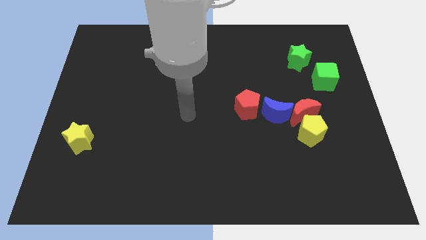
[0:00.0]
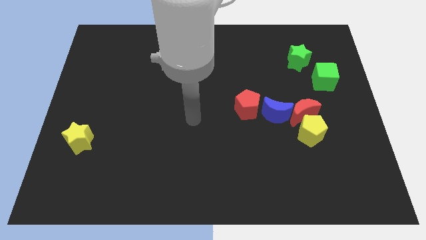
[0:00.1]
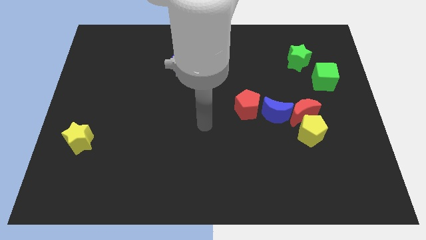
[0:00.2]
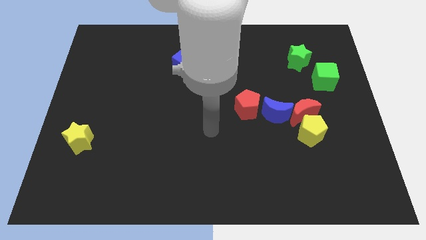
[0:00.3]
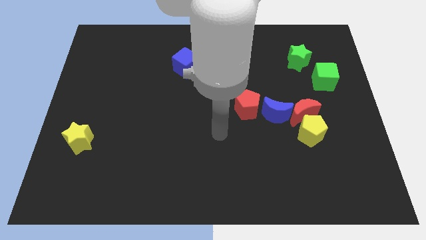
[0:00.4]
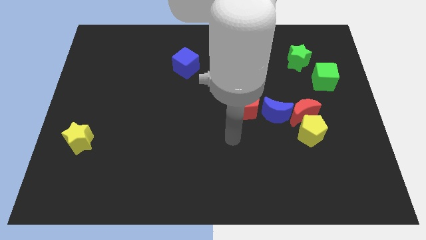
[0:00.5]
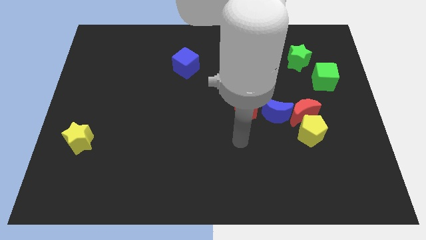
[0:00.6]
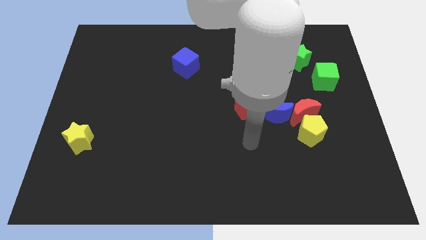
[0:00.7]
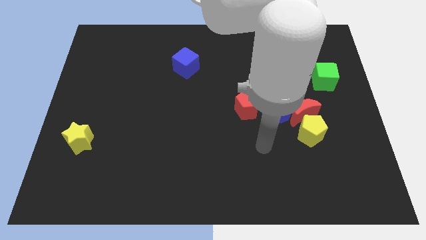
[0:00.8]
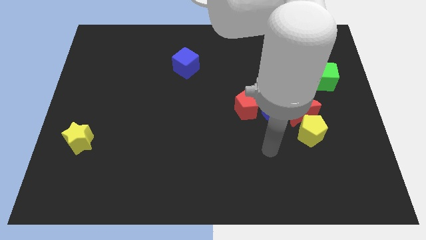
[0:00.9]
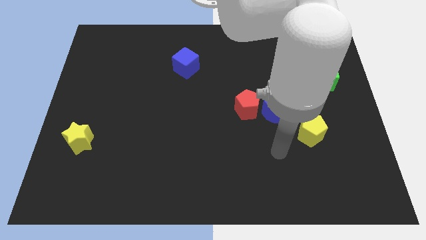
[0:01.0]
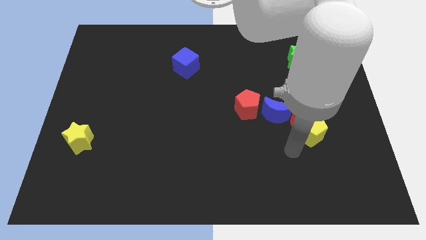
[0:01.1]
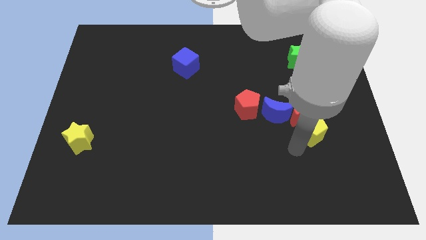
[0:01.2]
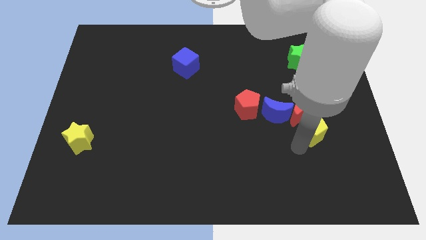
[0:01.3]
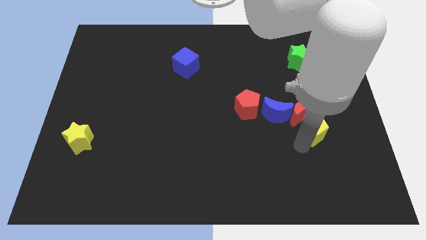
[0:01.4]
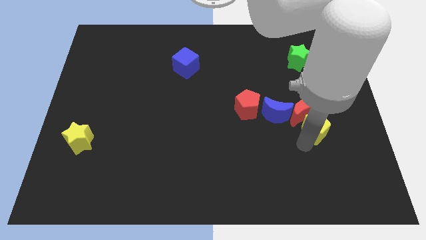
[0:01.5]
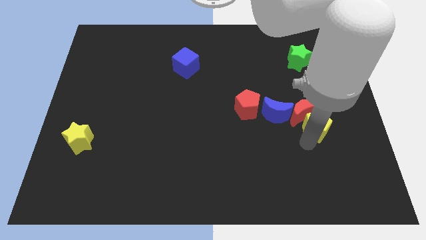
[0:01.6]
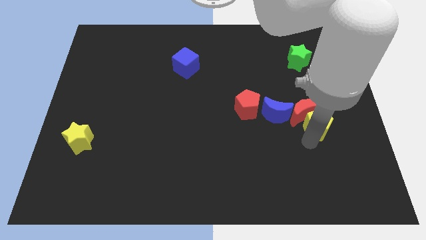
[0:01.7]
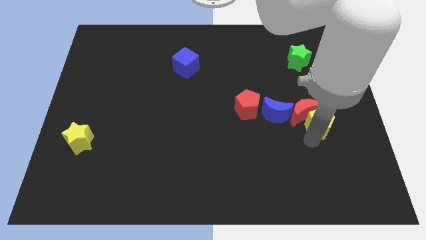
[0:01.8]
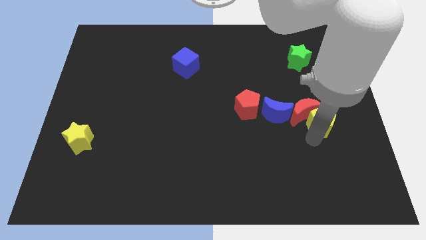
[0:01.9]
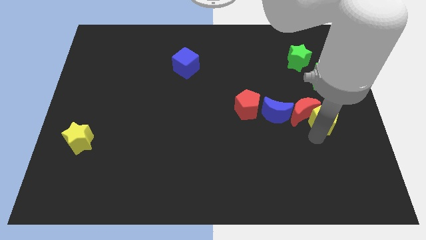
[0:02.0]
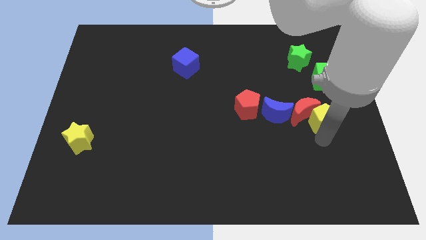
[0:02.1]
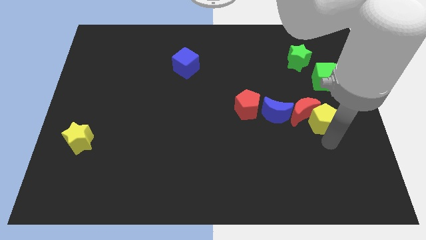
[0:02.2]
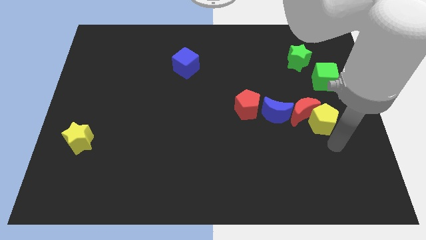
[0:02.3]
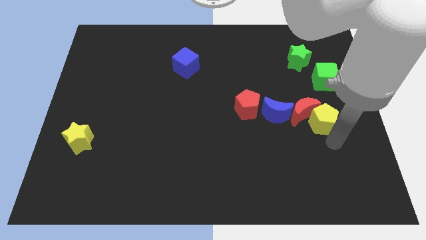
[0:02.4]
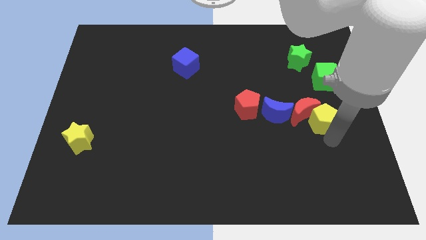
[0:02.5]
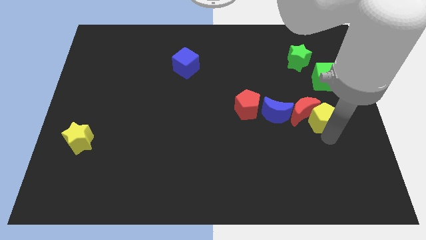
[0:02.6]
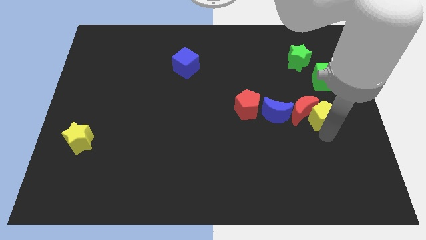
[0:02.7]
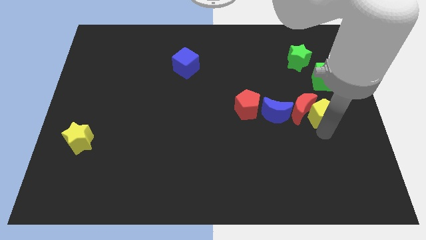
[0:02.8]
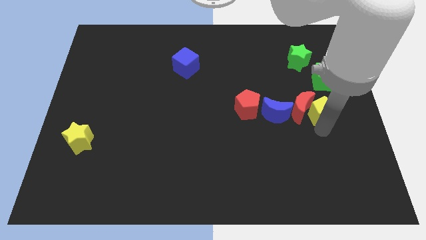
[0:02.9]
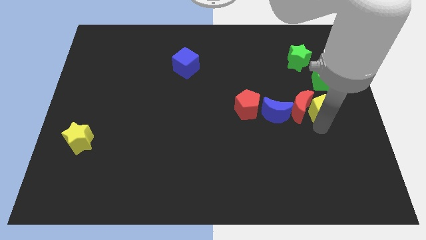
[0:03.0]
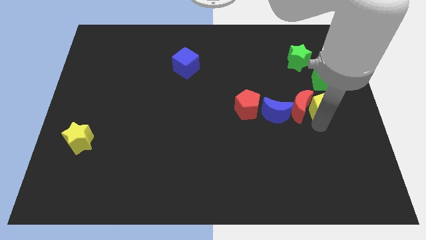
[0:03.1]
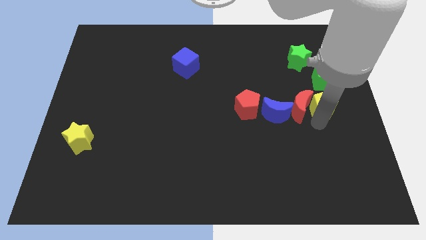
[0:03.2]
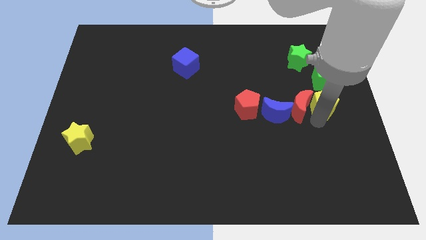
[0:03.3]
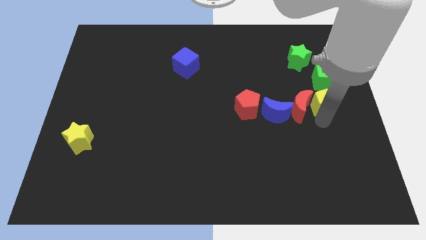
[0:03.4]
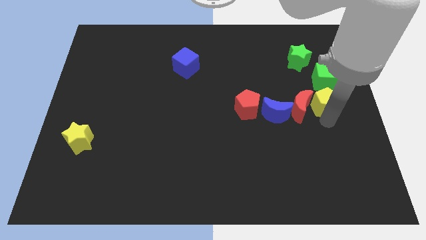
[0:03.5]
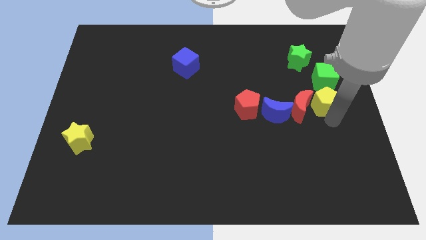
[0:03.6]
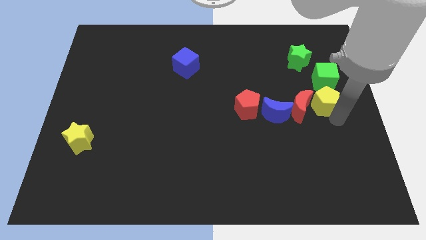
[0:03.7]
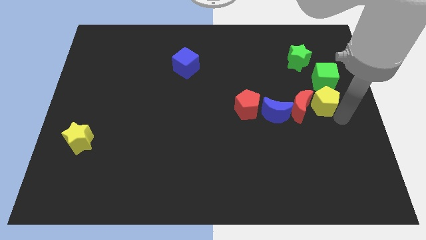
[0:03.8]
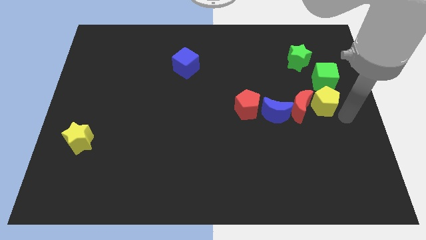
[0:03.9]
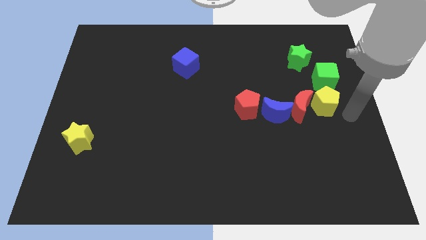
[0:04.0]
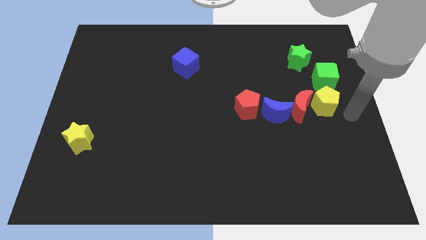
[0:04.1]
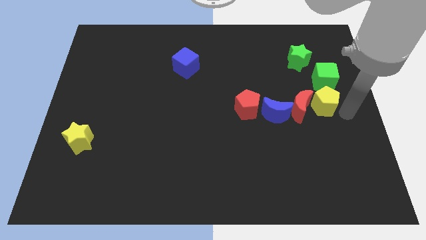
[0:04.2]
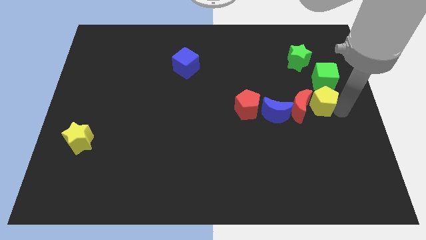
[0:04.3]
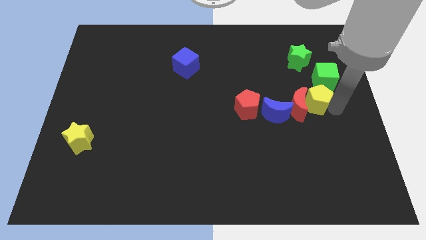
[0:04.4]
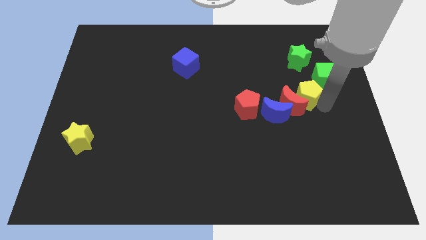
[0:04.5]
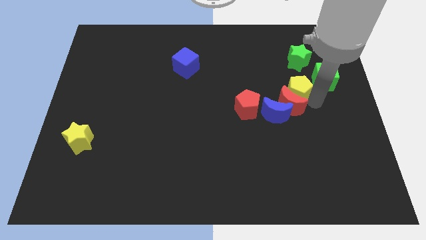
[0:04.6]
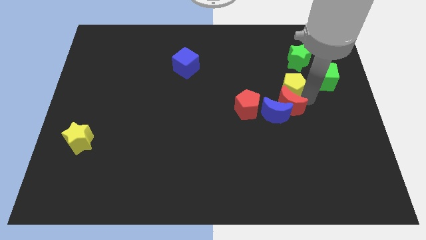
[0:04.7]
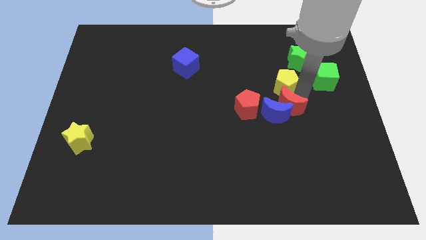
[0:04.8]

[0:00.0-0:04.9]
push the yellow pentagon to the bottom left of the green star

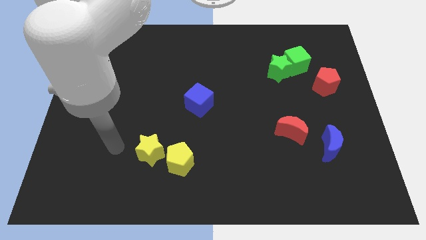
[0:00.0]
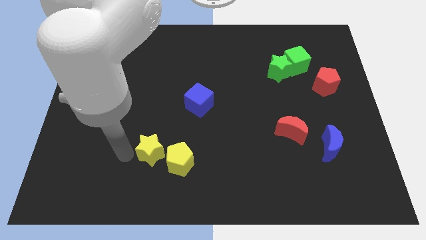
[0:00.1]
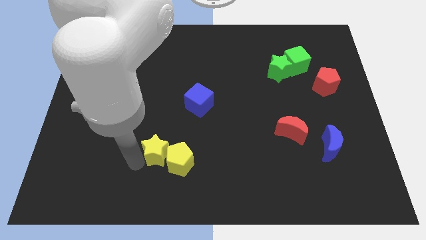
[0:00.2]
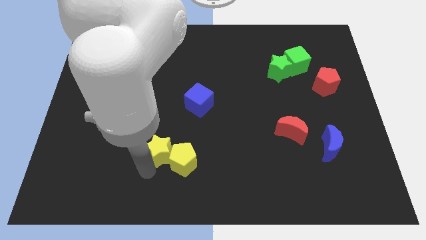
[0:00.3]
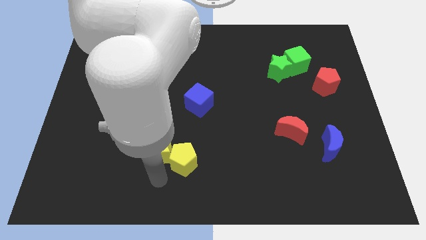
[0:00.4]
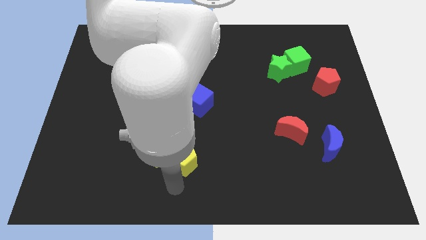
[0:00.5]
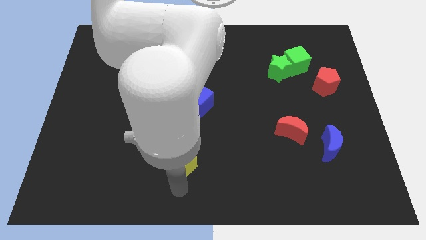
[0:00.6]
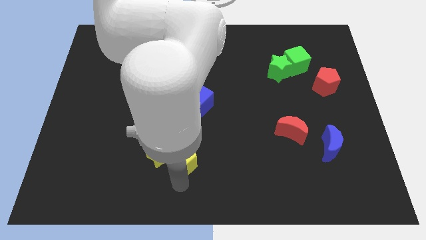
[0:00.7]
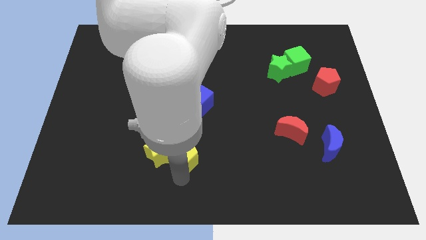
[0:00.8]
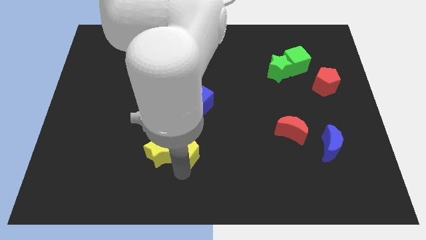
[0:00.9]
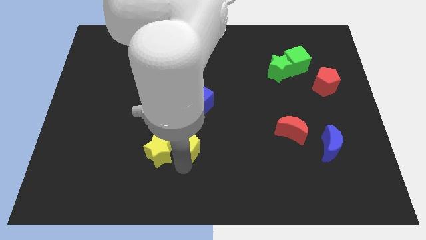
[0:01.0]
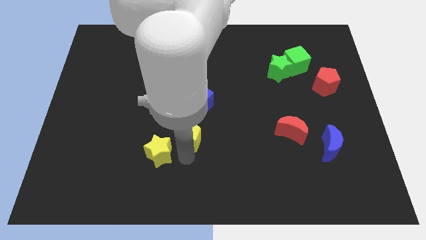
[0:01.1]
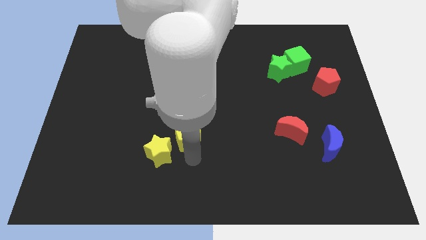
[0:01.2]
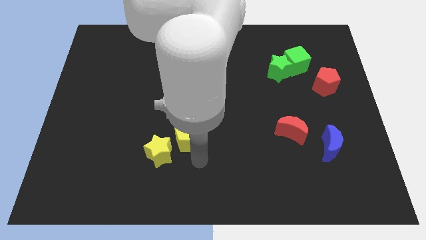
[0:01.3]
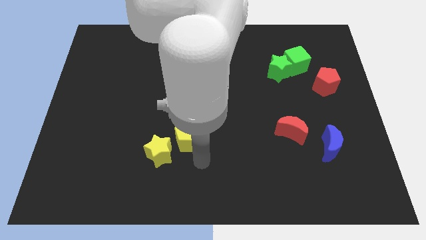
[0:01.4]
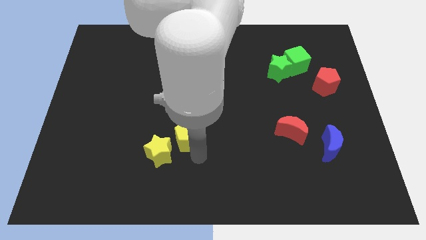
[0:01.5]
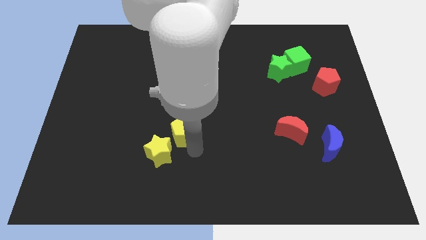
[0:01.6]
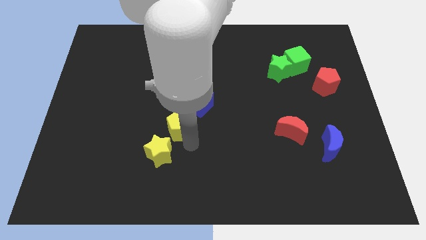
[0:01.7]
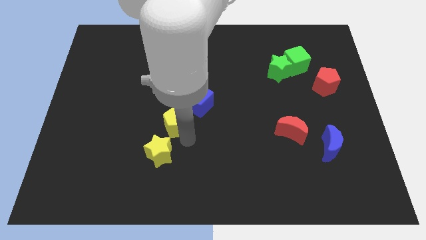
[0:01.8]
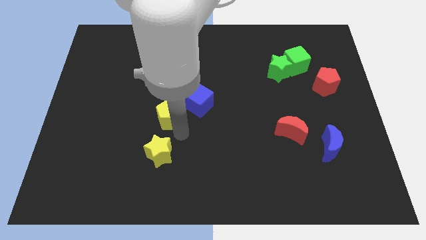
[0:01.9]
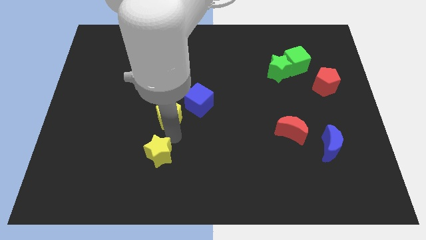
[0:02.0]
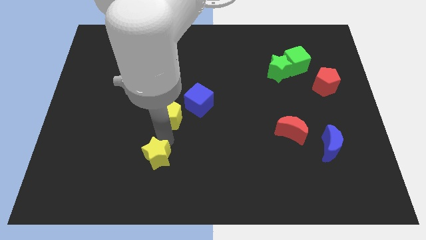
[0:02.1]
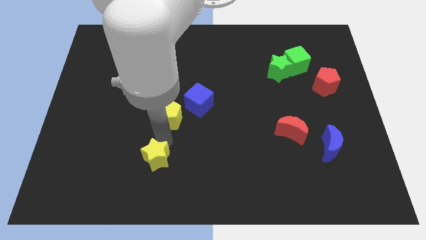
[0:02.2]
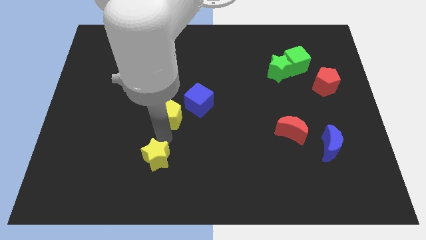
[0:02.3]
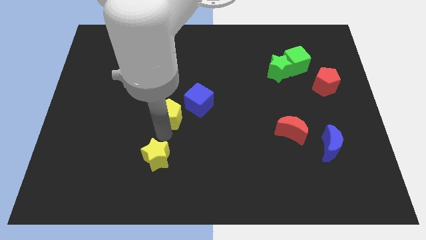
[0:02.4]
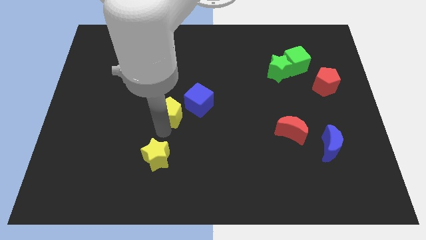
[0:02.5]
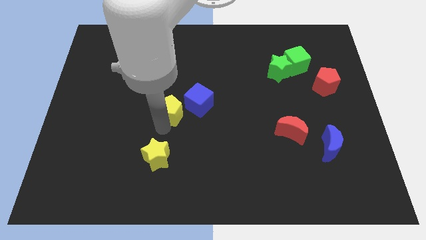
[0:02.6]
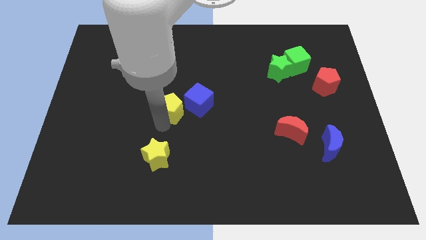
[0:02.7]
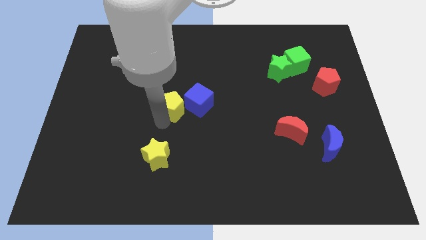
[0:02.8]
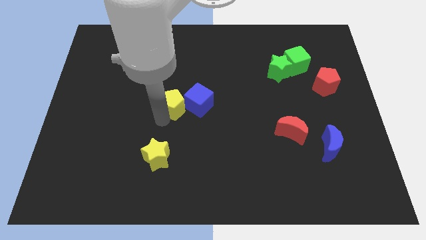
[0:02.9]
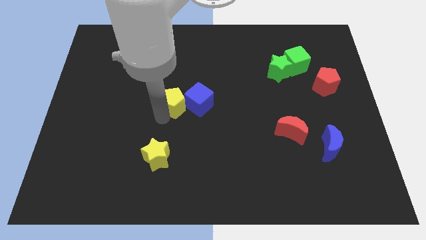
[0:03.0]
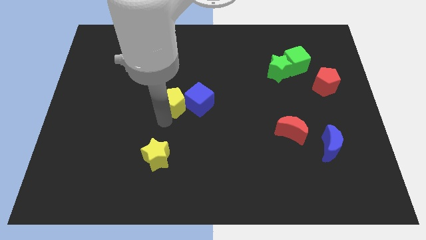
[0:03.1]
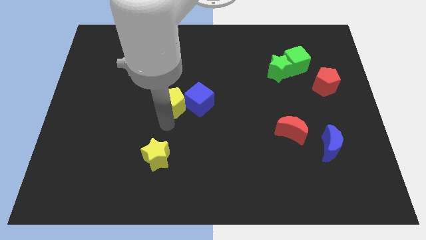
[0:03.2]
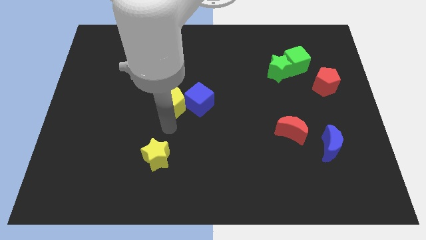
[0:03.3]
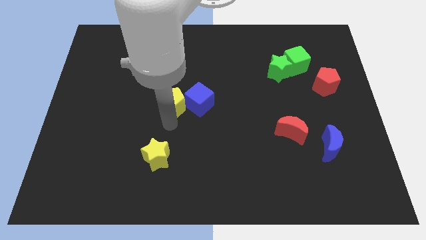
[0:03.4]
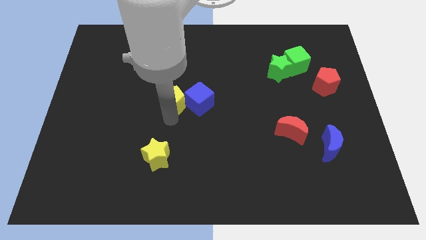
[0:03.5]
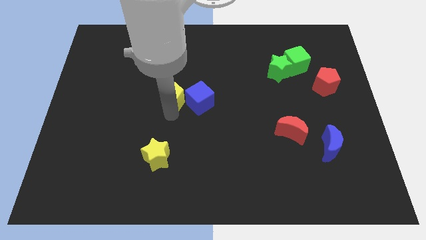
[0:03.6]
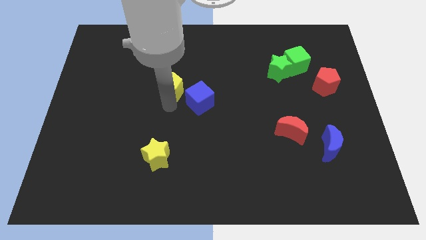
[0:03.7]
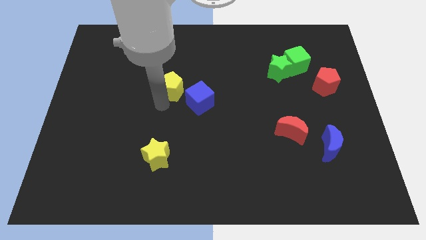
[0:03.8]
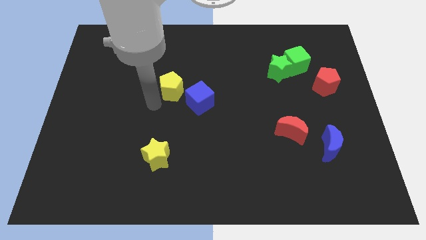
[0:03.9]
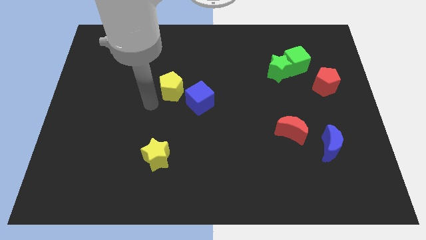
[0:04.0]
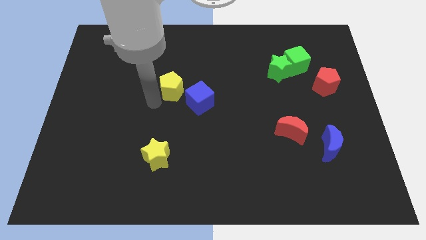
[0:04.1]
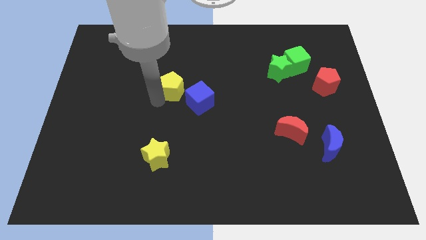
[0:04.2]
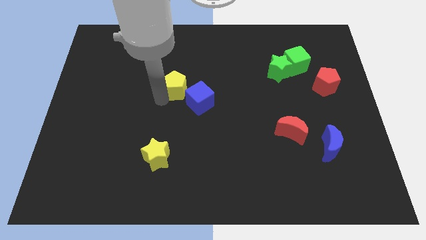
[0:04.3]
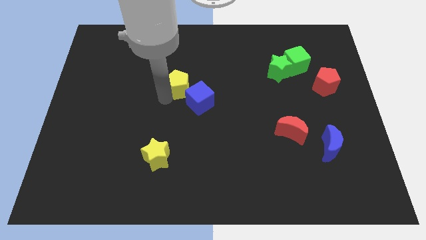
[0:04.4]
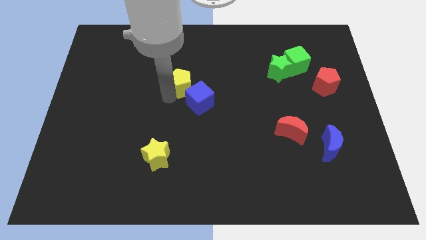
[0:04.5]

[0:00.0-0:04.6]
put the yellow pentagon to the top of the blue cube
